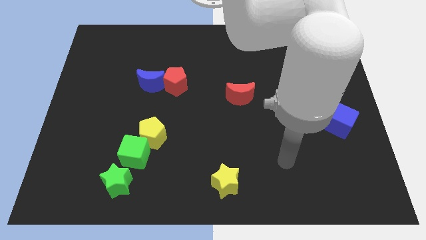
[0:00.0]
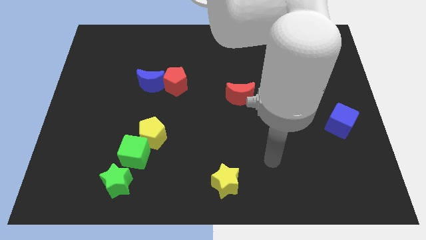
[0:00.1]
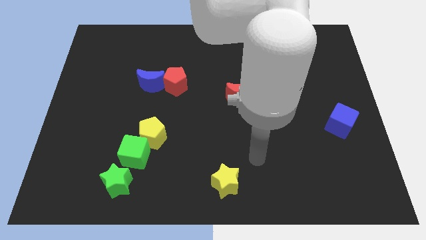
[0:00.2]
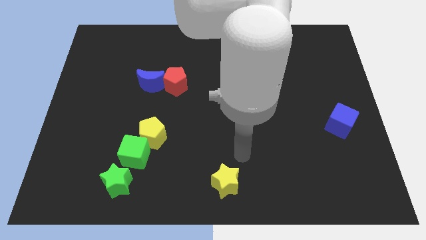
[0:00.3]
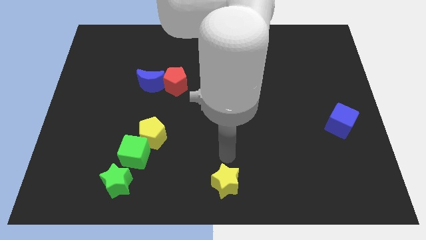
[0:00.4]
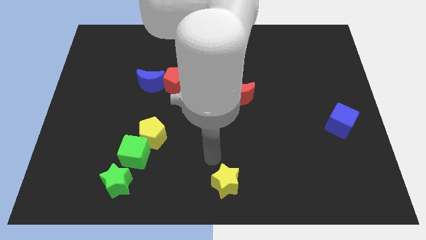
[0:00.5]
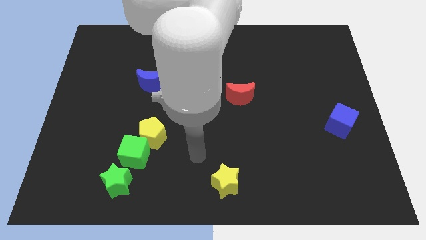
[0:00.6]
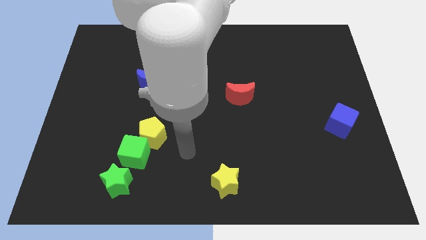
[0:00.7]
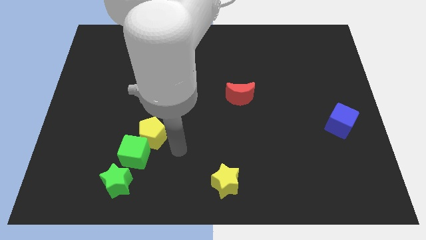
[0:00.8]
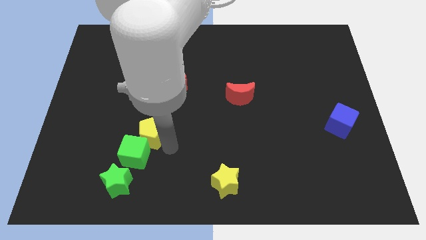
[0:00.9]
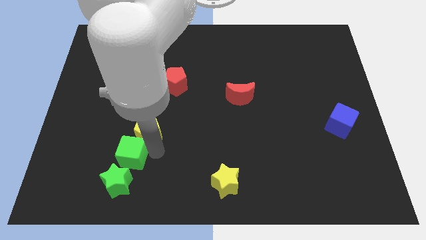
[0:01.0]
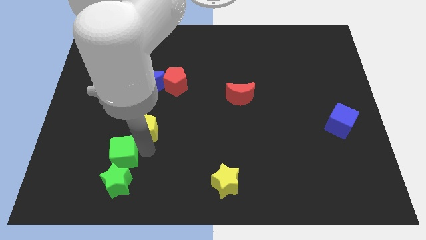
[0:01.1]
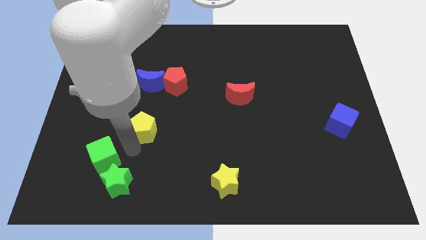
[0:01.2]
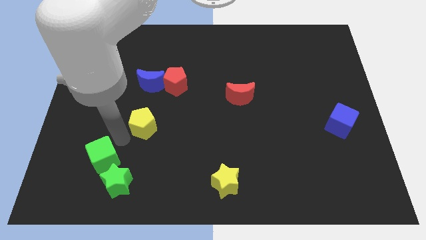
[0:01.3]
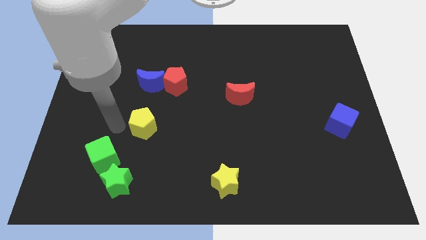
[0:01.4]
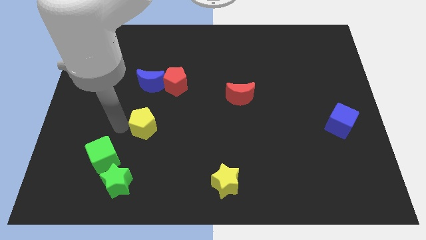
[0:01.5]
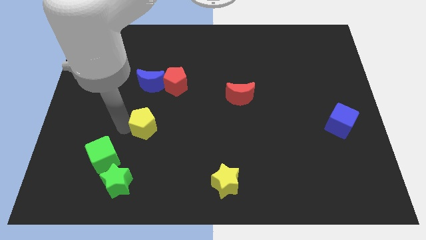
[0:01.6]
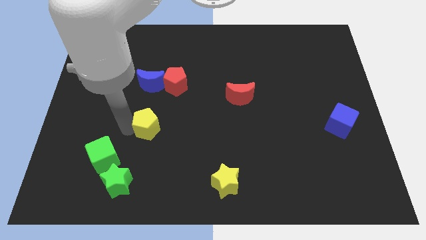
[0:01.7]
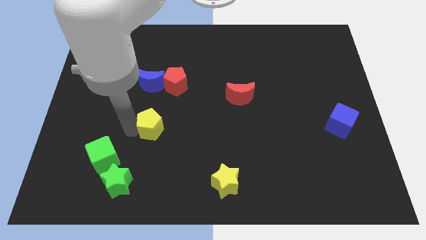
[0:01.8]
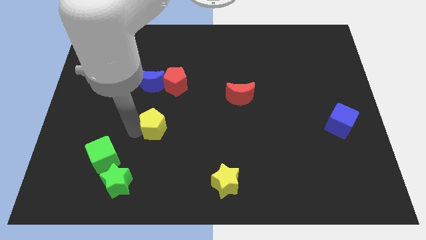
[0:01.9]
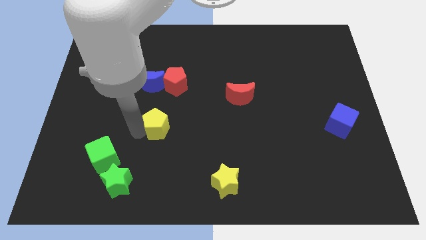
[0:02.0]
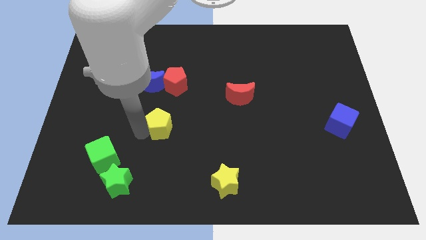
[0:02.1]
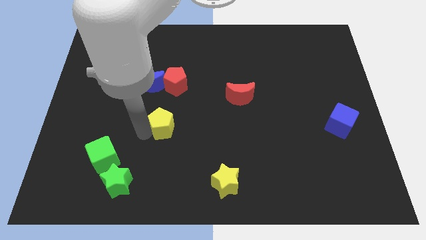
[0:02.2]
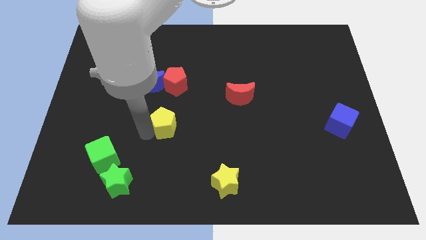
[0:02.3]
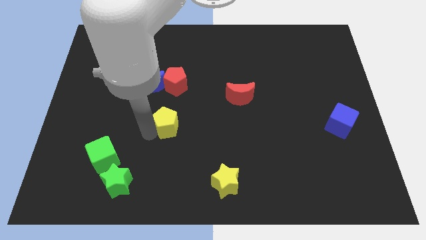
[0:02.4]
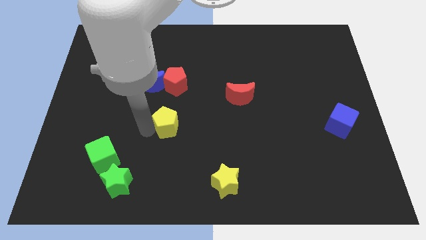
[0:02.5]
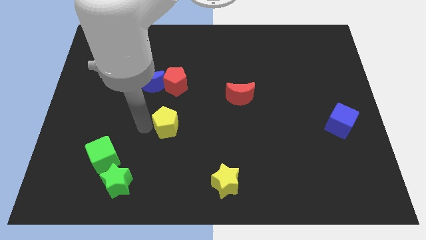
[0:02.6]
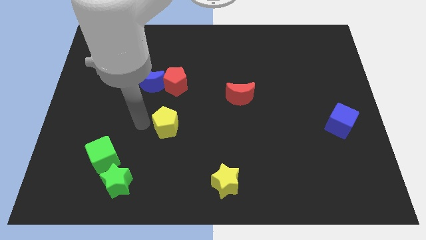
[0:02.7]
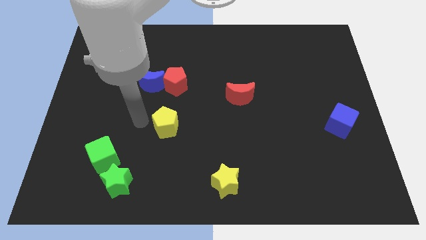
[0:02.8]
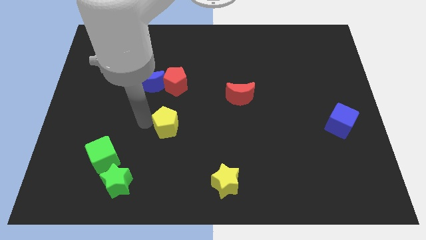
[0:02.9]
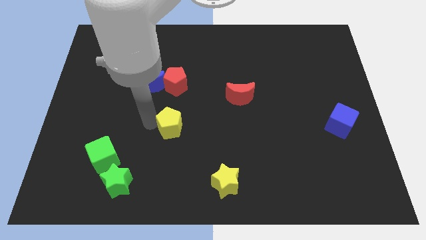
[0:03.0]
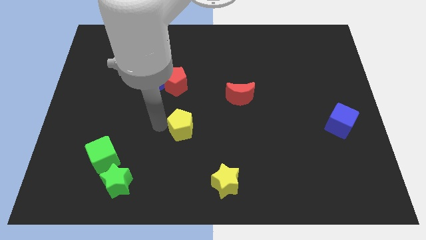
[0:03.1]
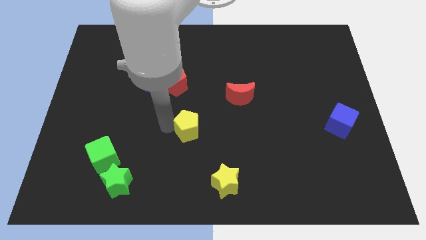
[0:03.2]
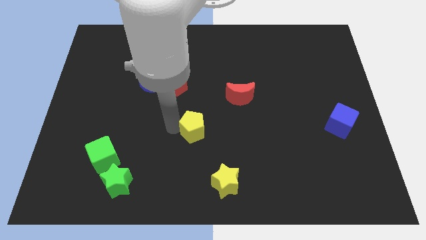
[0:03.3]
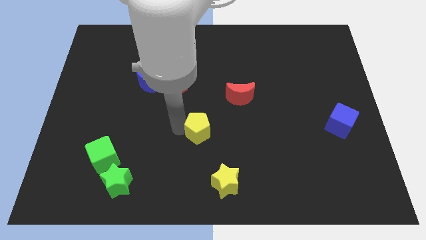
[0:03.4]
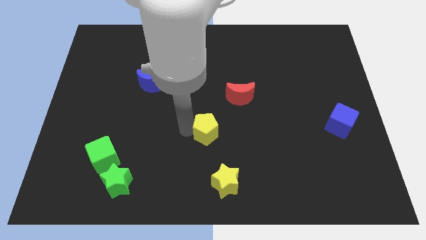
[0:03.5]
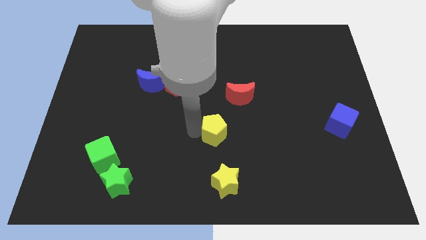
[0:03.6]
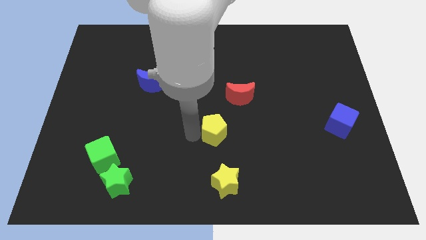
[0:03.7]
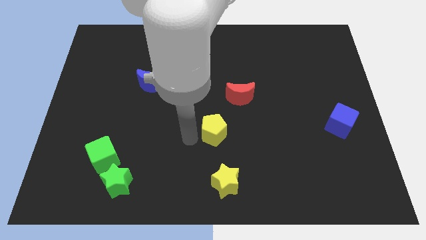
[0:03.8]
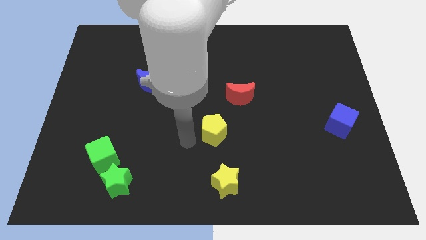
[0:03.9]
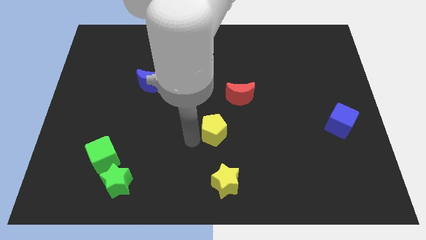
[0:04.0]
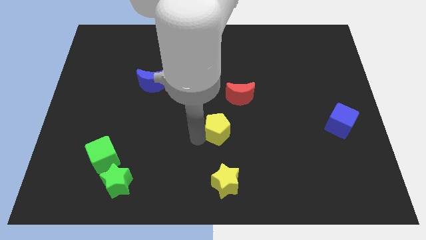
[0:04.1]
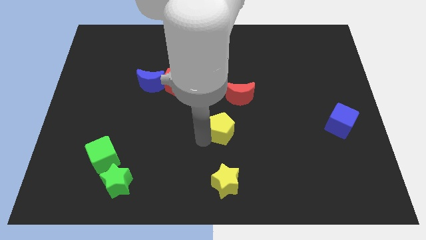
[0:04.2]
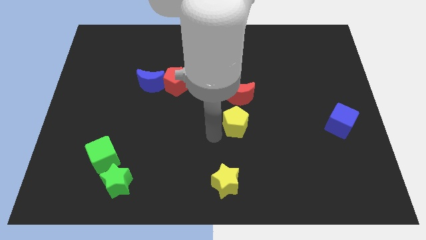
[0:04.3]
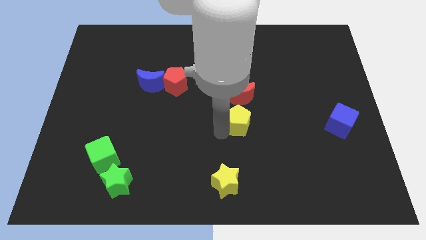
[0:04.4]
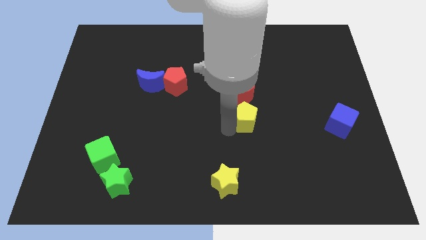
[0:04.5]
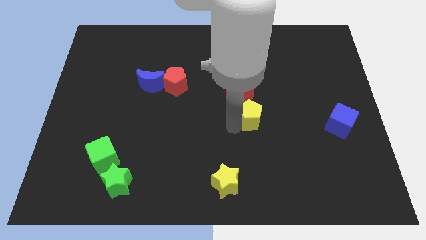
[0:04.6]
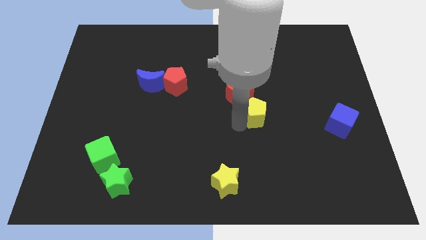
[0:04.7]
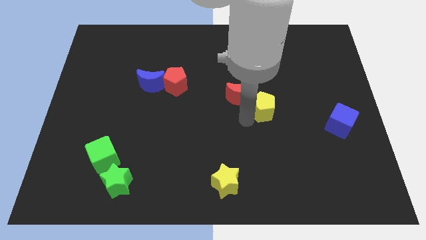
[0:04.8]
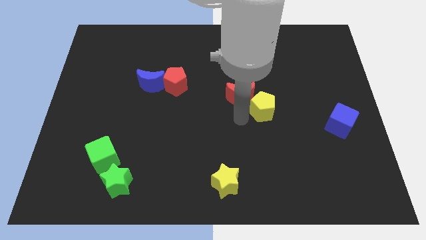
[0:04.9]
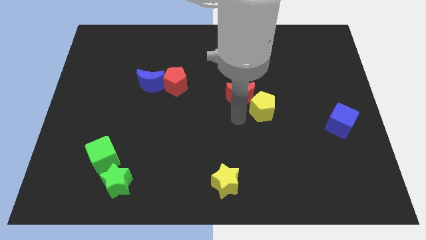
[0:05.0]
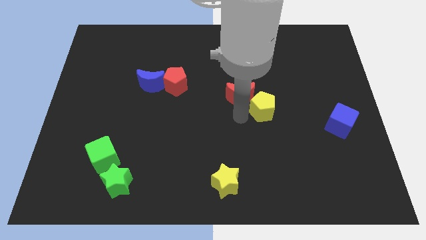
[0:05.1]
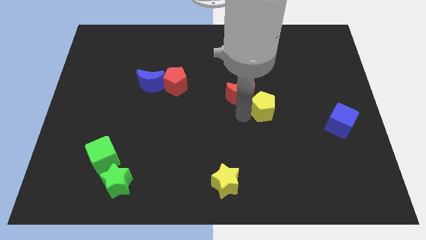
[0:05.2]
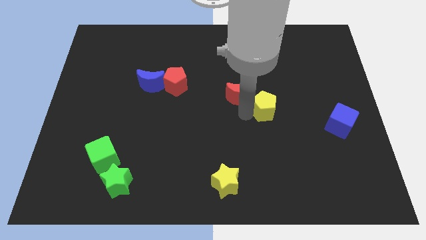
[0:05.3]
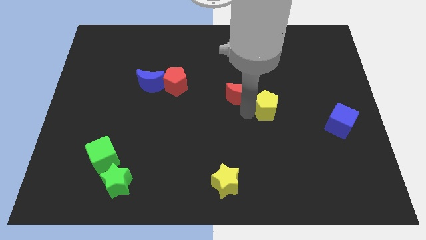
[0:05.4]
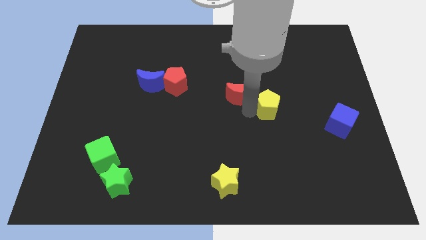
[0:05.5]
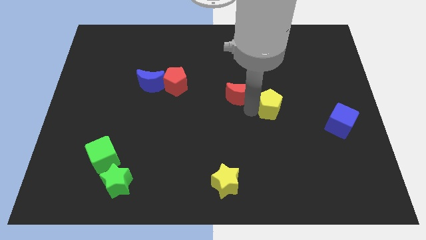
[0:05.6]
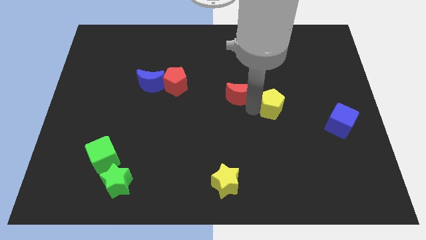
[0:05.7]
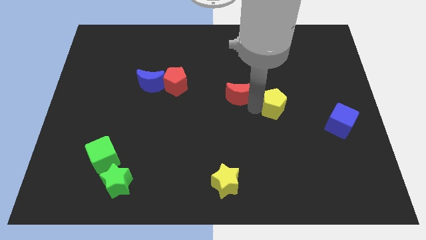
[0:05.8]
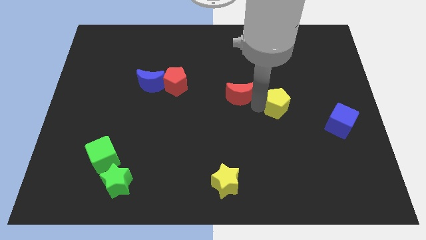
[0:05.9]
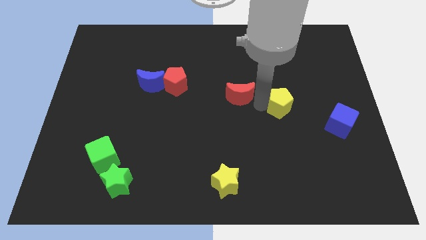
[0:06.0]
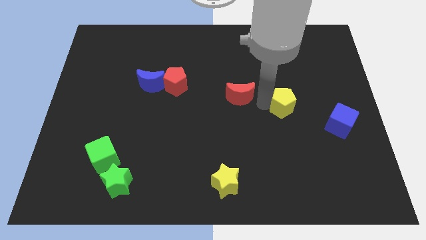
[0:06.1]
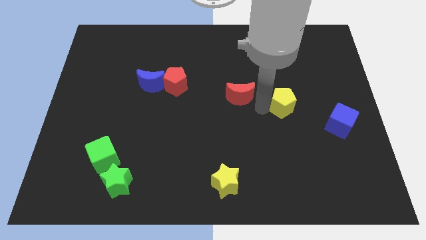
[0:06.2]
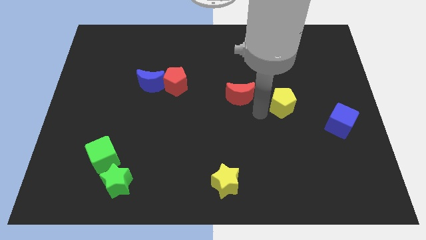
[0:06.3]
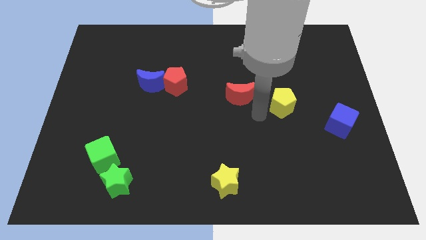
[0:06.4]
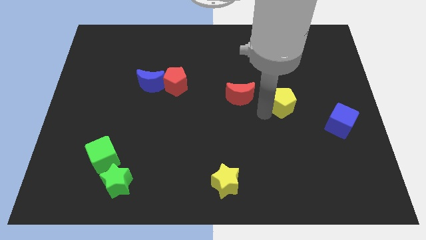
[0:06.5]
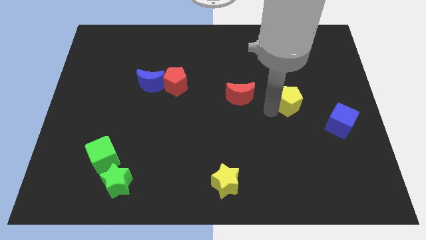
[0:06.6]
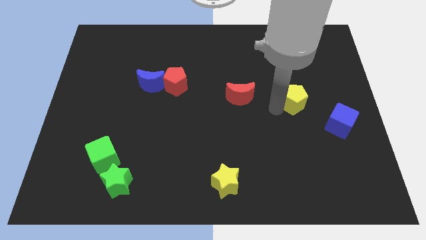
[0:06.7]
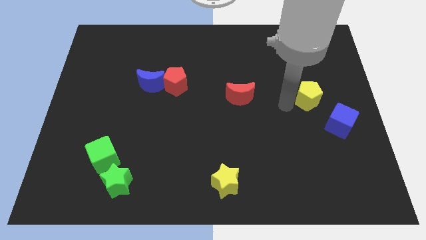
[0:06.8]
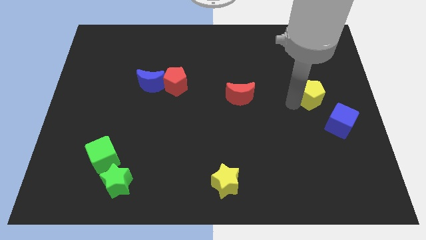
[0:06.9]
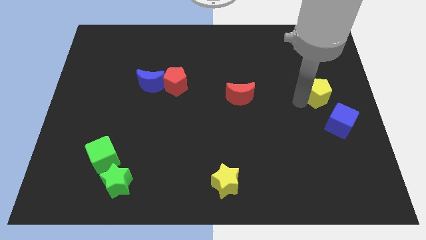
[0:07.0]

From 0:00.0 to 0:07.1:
slide the yellow pentagon to the top side of the blue cube

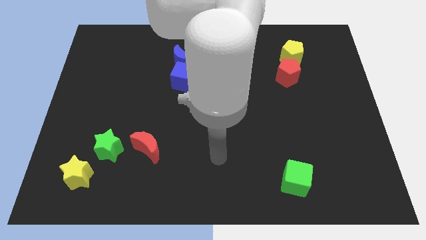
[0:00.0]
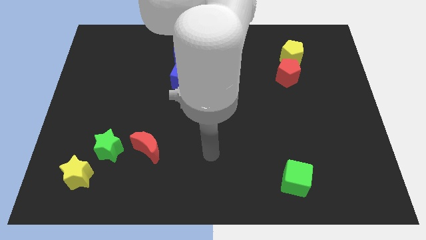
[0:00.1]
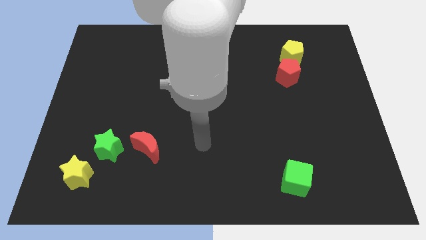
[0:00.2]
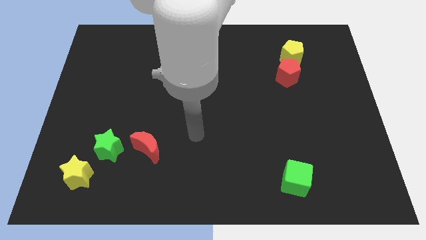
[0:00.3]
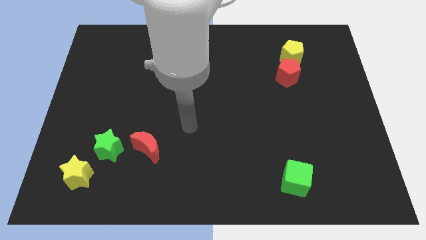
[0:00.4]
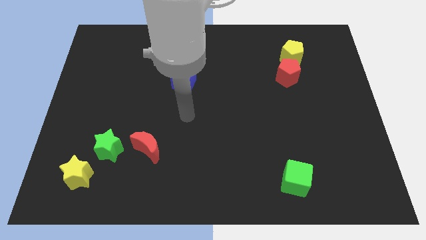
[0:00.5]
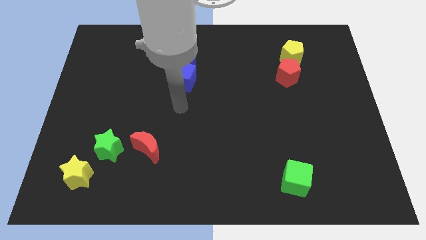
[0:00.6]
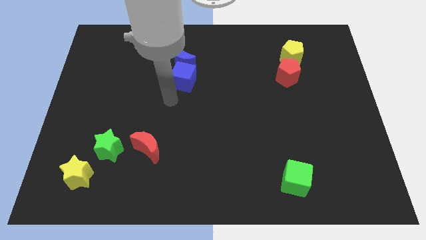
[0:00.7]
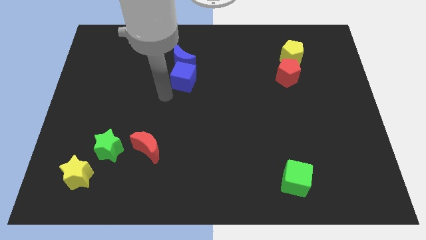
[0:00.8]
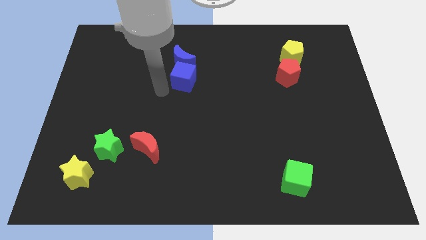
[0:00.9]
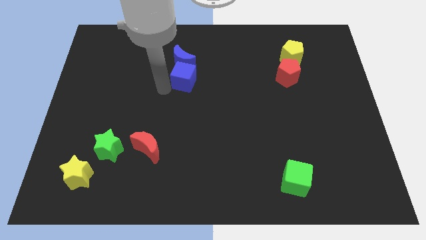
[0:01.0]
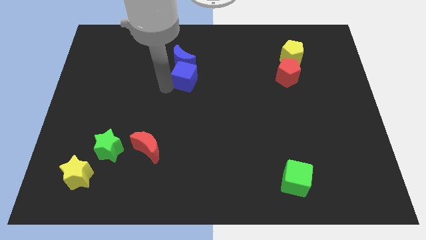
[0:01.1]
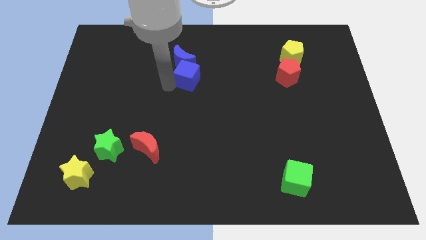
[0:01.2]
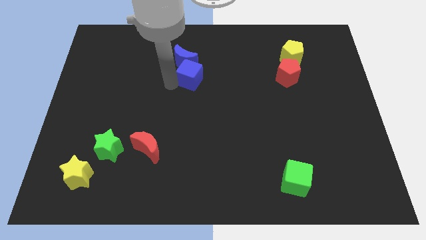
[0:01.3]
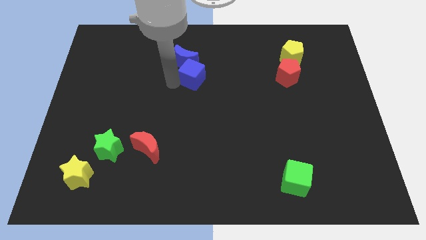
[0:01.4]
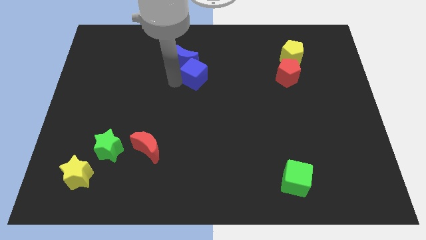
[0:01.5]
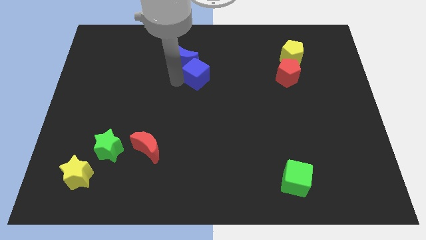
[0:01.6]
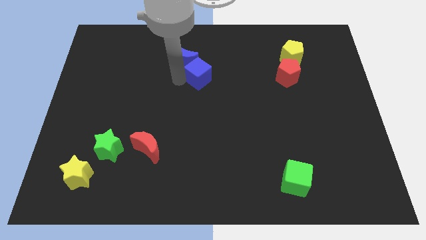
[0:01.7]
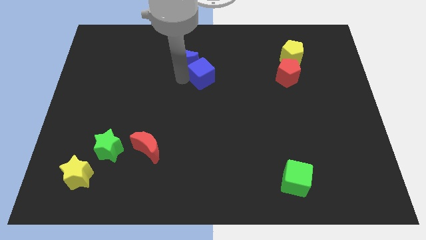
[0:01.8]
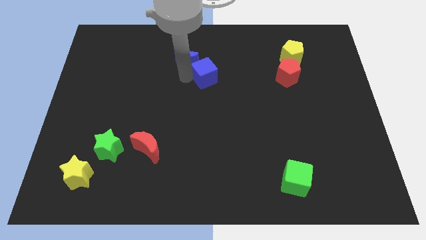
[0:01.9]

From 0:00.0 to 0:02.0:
slide the blue cube right of the blue moon
